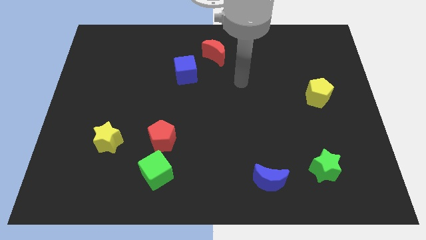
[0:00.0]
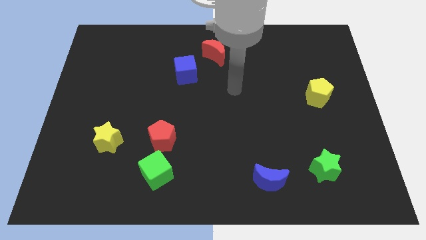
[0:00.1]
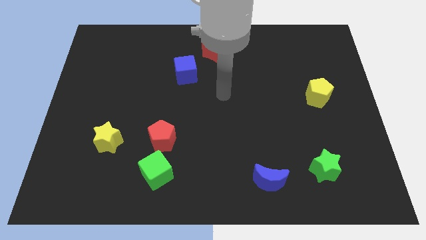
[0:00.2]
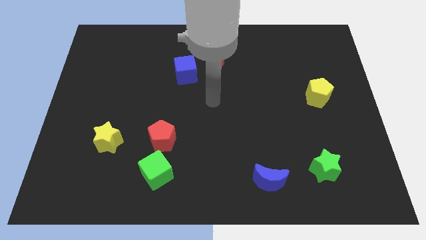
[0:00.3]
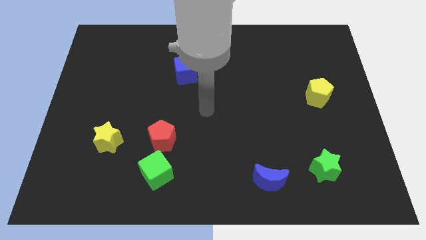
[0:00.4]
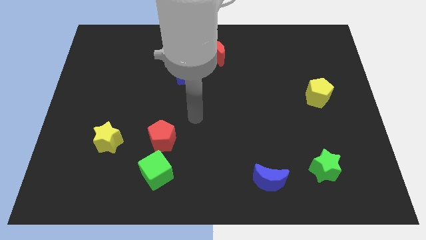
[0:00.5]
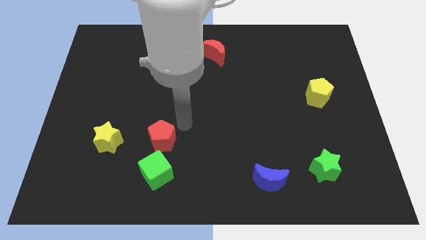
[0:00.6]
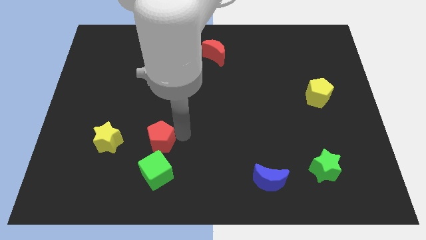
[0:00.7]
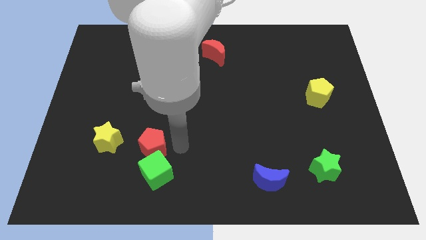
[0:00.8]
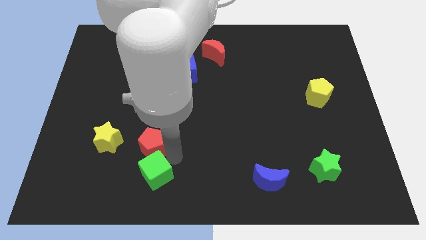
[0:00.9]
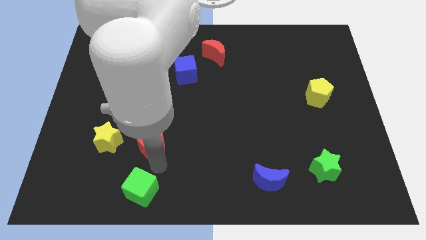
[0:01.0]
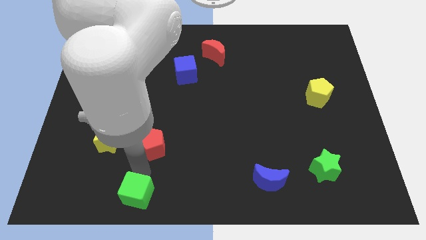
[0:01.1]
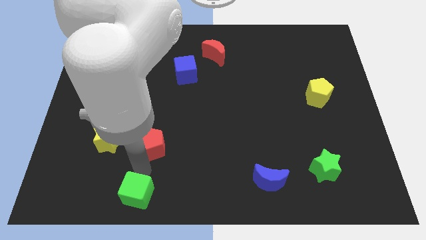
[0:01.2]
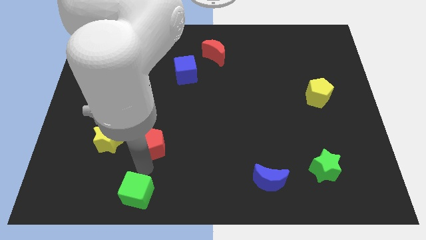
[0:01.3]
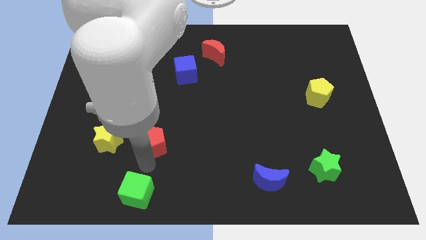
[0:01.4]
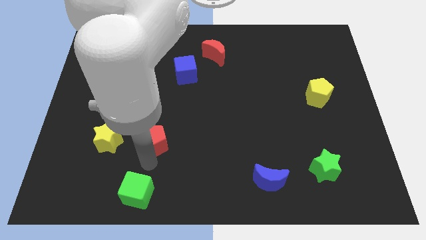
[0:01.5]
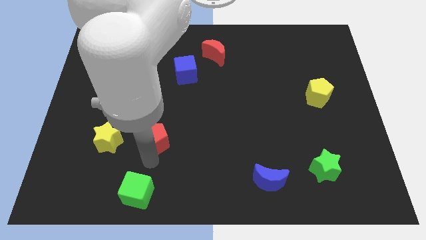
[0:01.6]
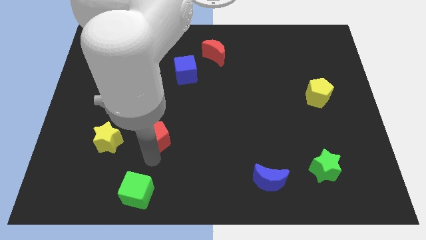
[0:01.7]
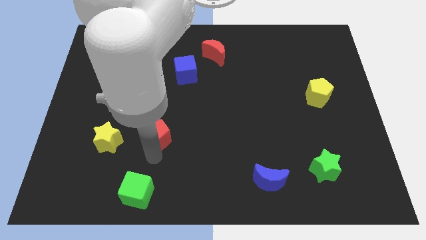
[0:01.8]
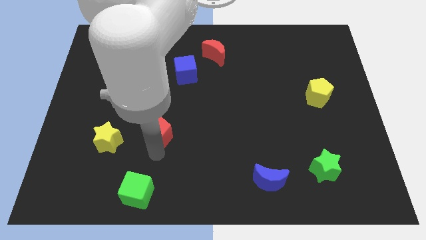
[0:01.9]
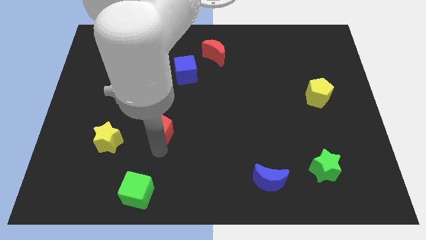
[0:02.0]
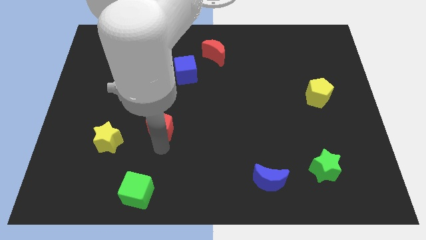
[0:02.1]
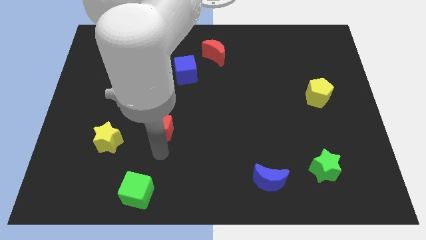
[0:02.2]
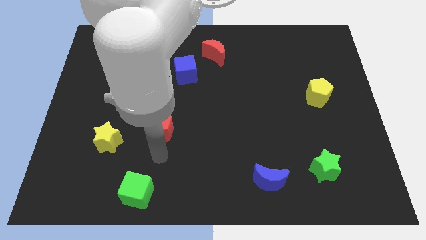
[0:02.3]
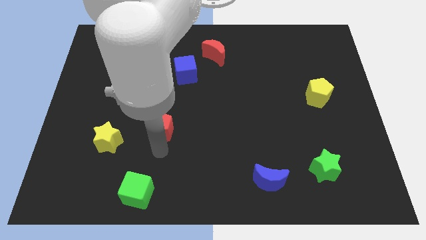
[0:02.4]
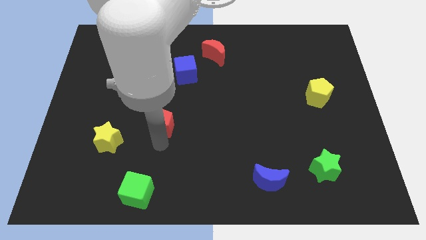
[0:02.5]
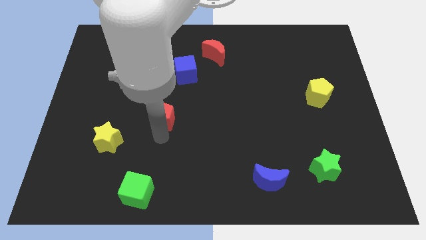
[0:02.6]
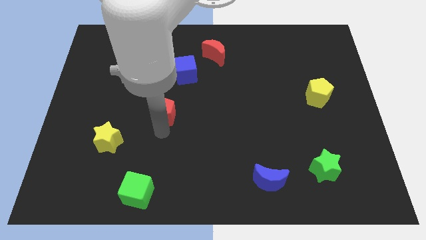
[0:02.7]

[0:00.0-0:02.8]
slightly push the red pentagon upwards

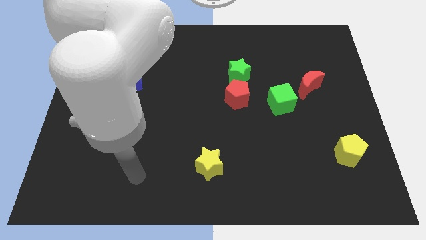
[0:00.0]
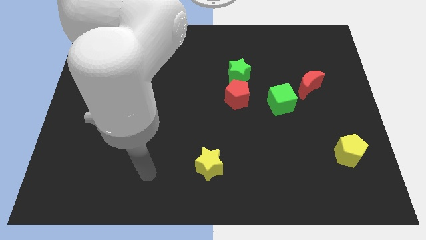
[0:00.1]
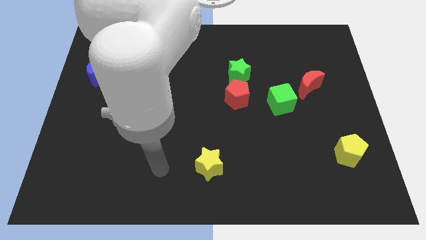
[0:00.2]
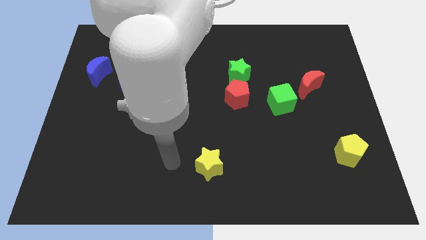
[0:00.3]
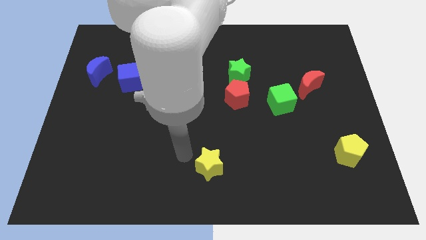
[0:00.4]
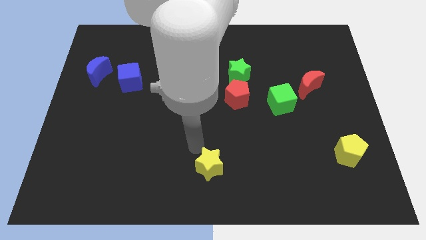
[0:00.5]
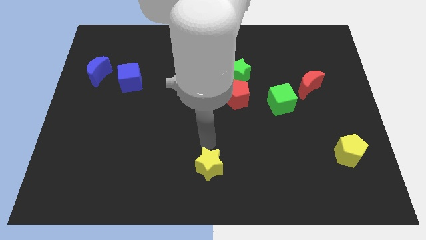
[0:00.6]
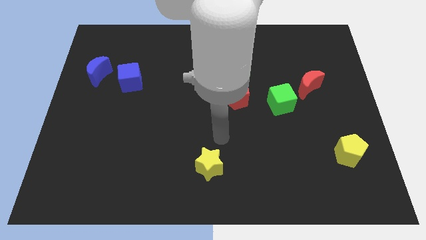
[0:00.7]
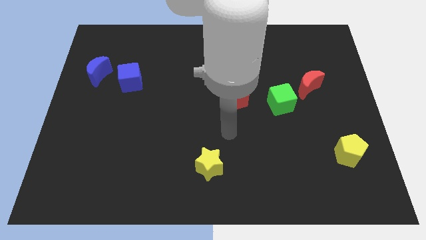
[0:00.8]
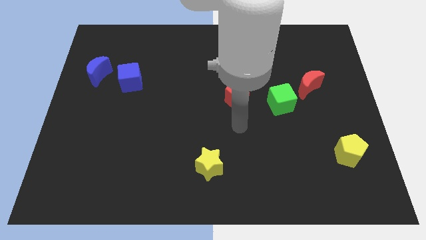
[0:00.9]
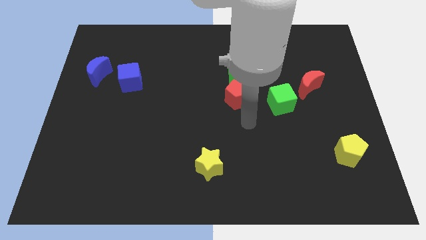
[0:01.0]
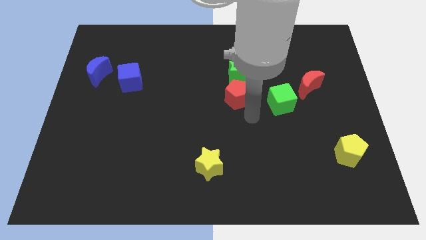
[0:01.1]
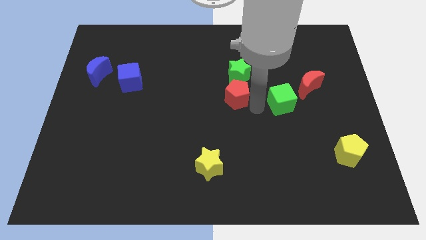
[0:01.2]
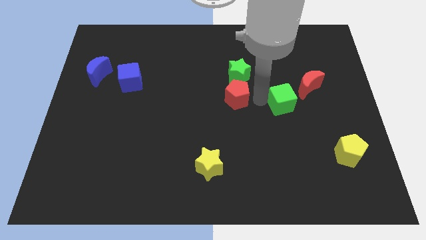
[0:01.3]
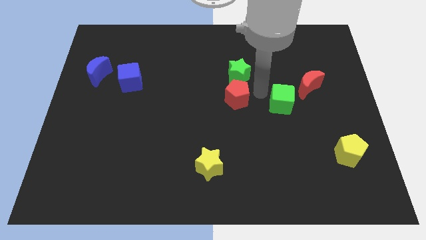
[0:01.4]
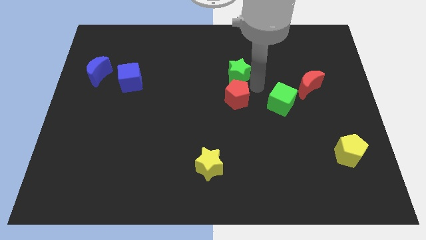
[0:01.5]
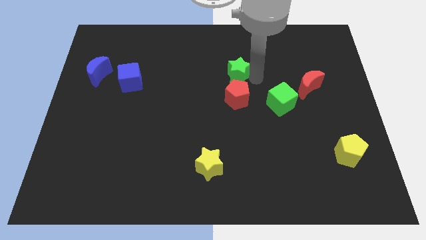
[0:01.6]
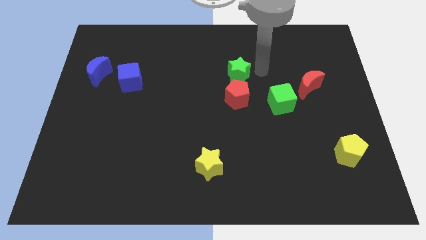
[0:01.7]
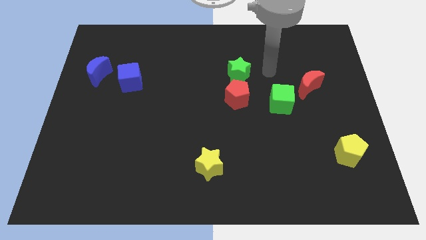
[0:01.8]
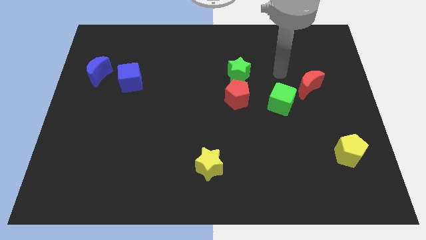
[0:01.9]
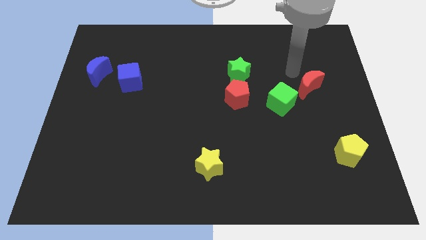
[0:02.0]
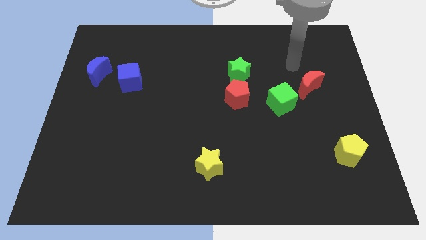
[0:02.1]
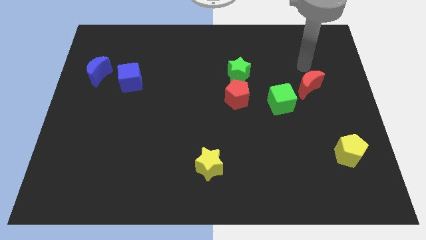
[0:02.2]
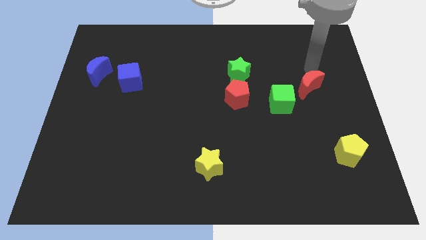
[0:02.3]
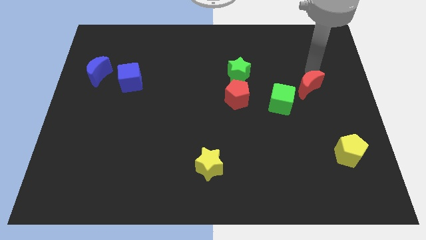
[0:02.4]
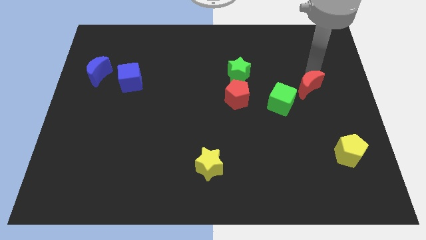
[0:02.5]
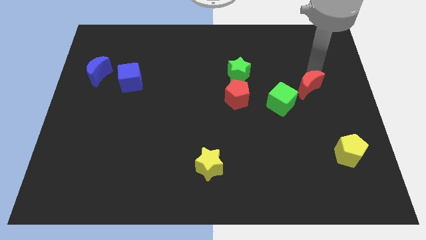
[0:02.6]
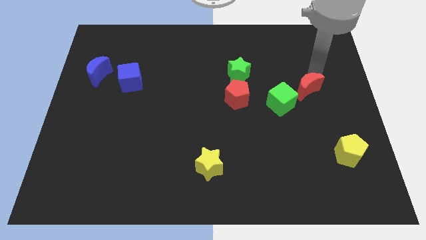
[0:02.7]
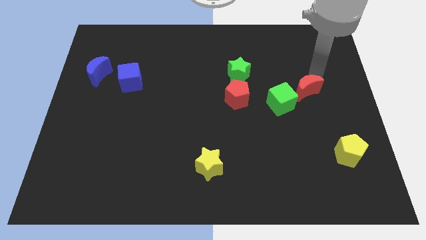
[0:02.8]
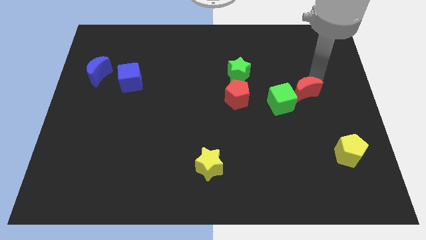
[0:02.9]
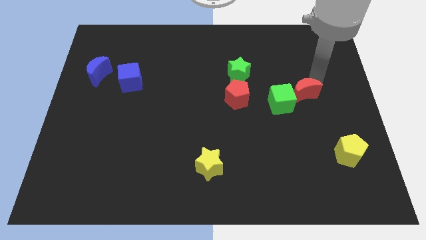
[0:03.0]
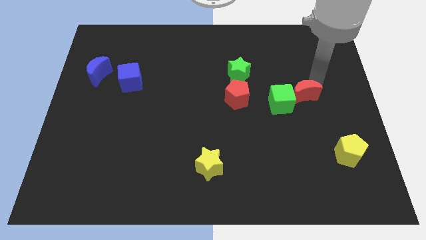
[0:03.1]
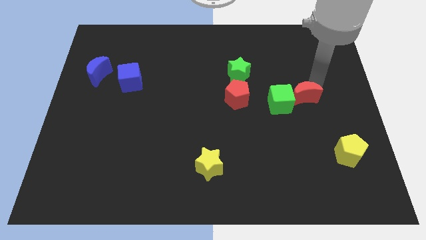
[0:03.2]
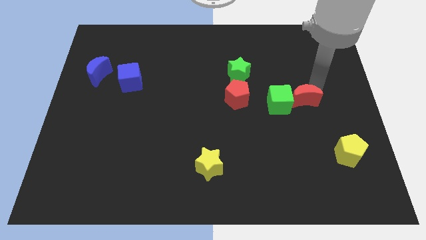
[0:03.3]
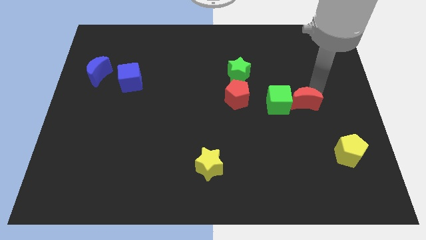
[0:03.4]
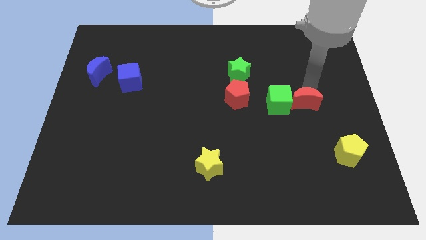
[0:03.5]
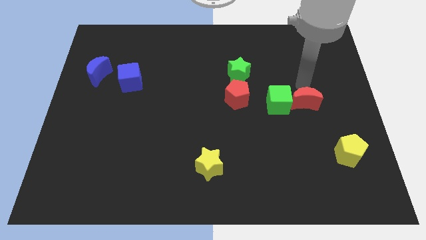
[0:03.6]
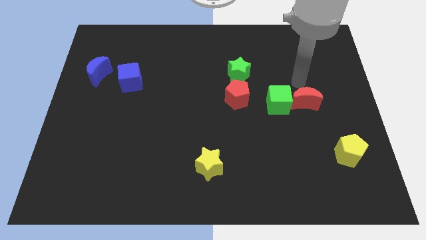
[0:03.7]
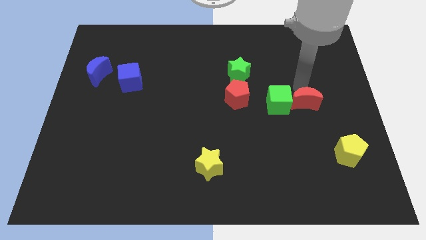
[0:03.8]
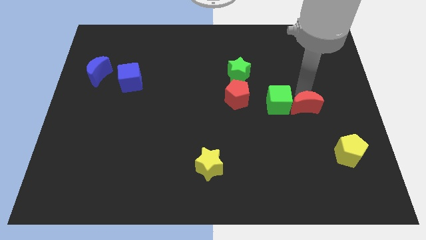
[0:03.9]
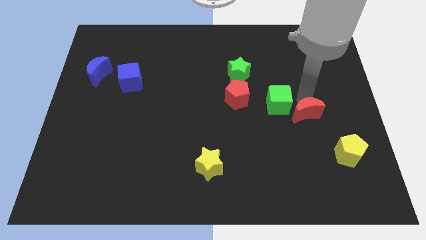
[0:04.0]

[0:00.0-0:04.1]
push the red moon downwards slightly

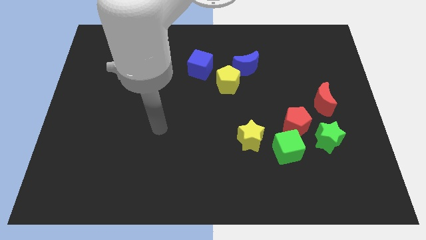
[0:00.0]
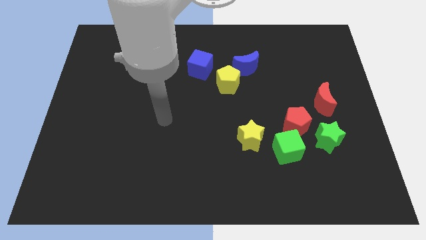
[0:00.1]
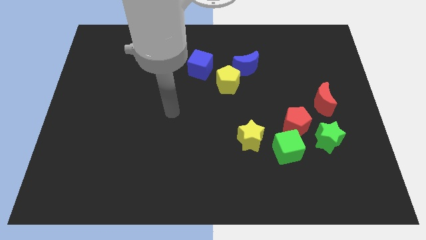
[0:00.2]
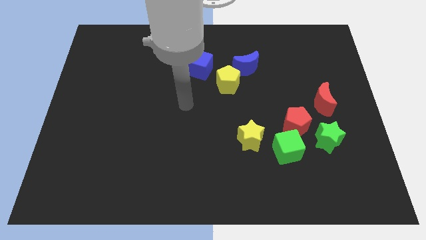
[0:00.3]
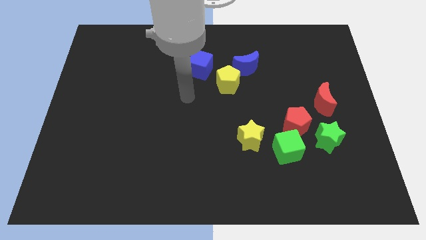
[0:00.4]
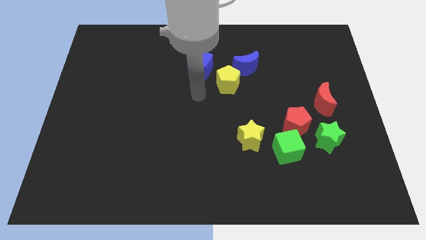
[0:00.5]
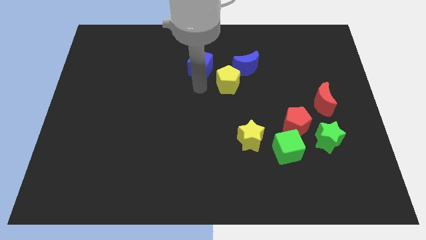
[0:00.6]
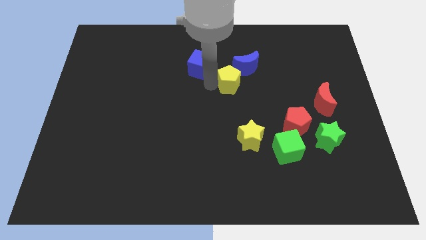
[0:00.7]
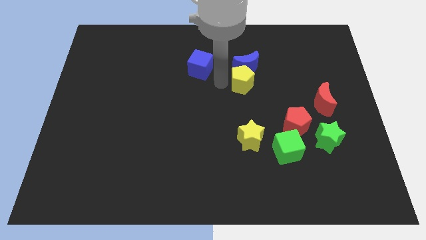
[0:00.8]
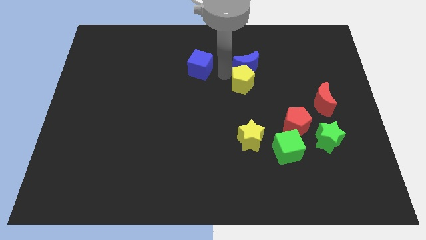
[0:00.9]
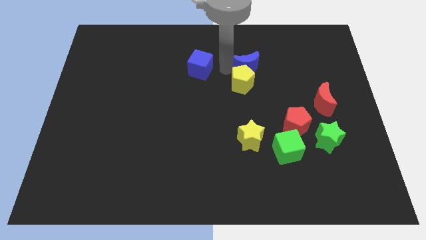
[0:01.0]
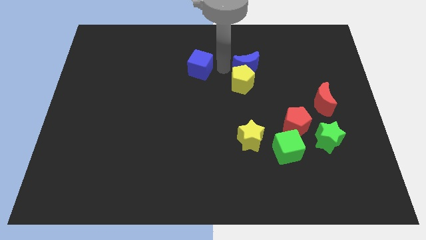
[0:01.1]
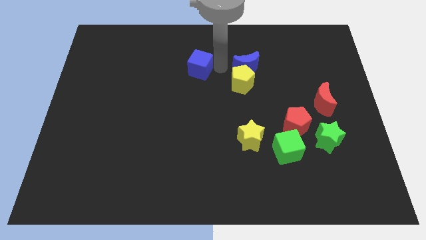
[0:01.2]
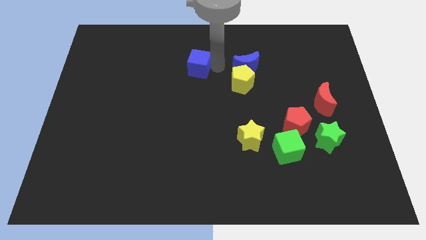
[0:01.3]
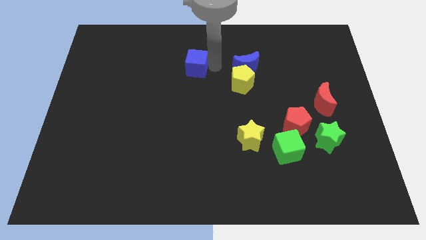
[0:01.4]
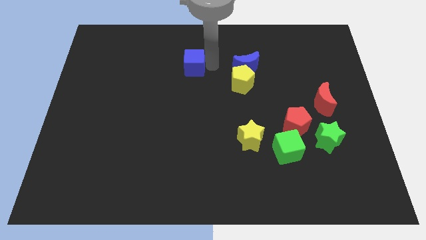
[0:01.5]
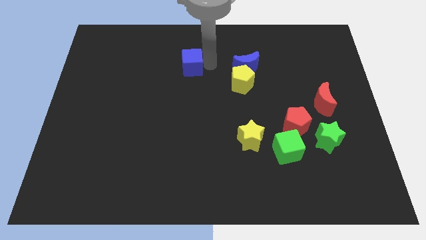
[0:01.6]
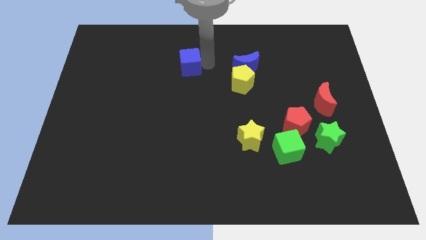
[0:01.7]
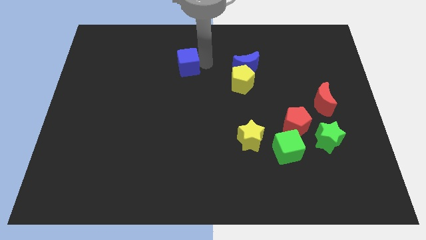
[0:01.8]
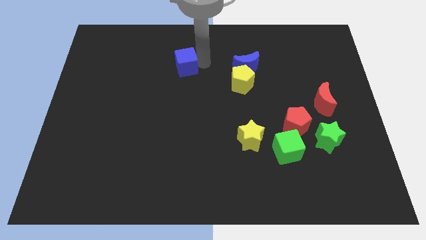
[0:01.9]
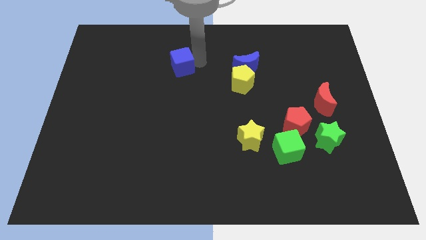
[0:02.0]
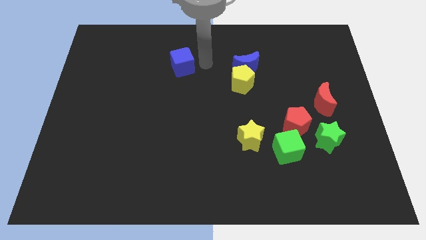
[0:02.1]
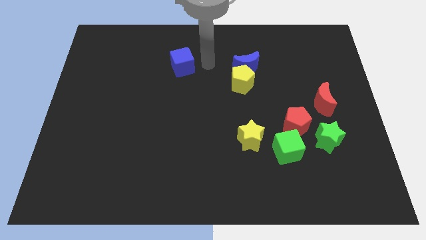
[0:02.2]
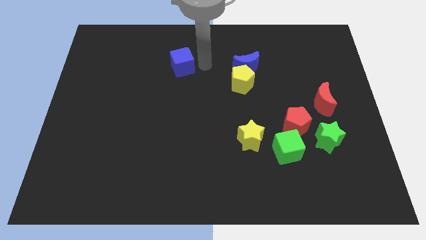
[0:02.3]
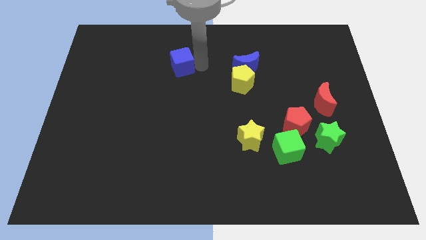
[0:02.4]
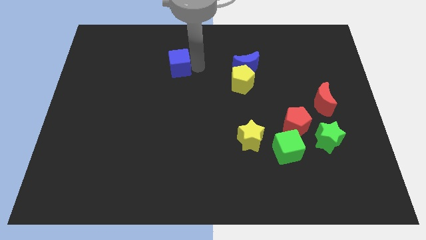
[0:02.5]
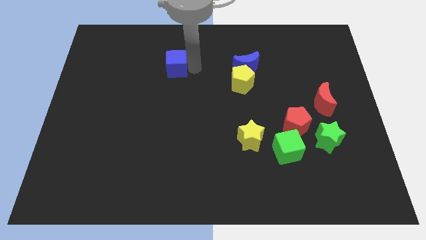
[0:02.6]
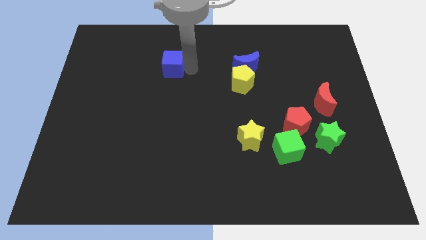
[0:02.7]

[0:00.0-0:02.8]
move the blue cube a little bit left
